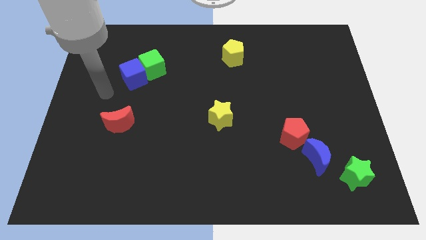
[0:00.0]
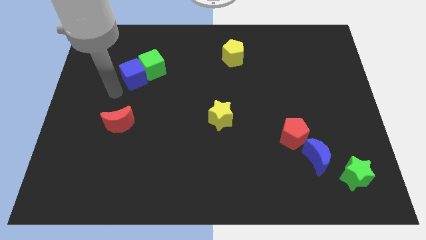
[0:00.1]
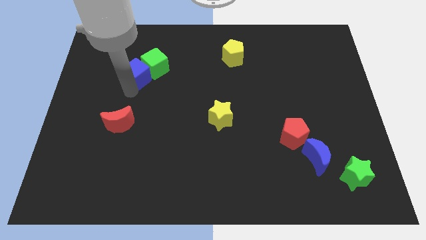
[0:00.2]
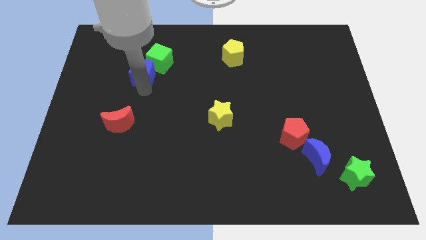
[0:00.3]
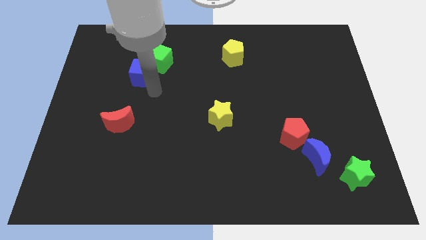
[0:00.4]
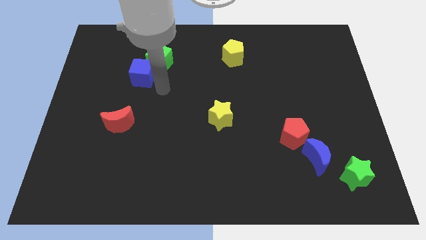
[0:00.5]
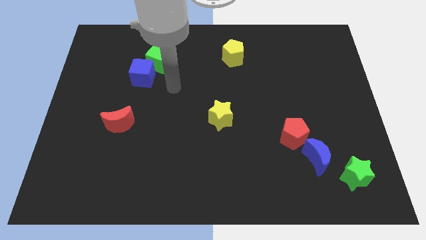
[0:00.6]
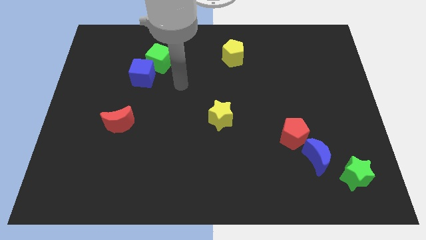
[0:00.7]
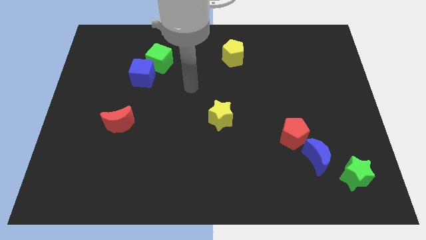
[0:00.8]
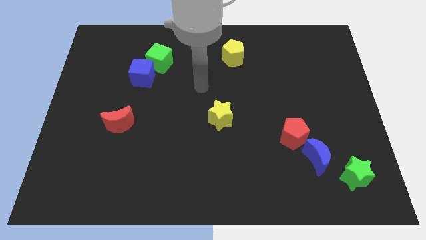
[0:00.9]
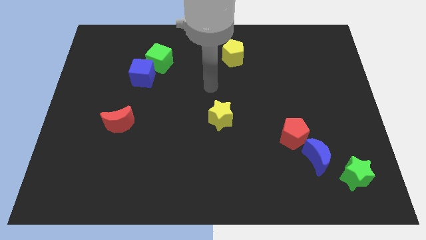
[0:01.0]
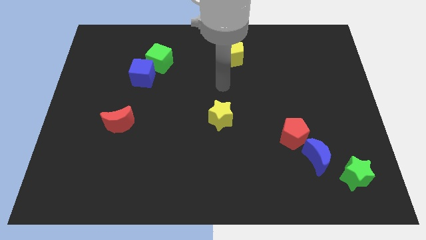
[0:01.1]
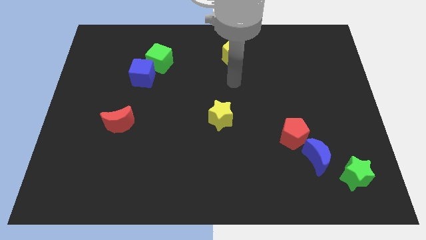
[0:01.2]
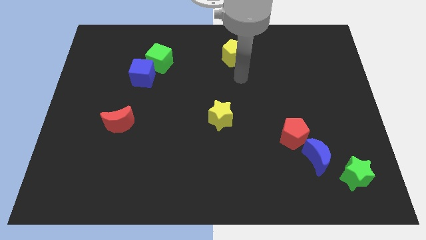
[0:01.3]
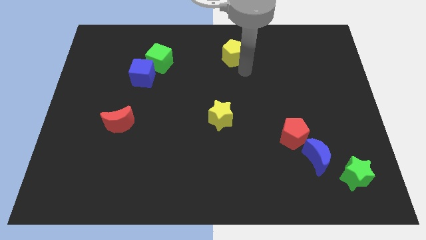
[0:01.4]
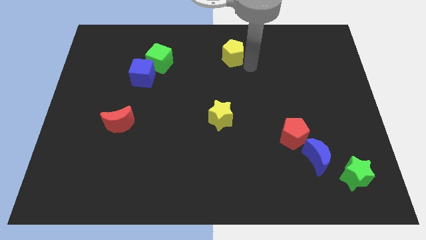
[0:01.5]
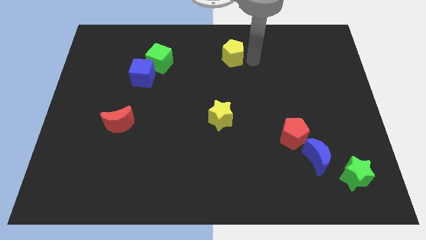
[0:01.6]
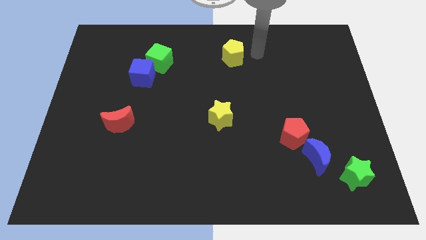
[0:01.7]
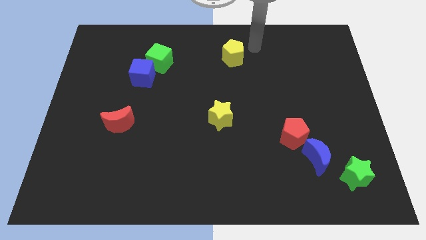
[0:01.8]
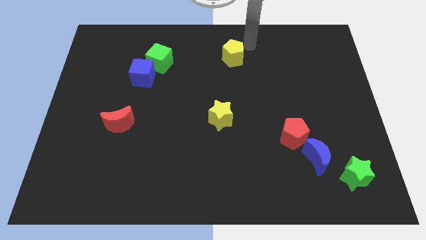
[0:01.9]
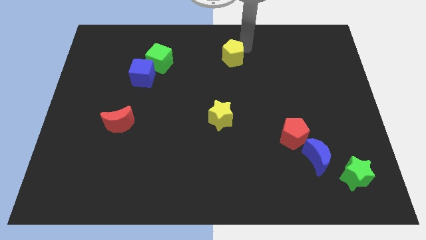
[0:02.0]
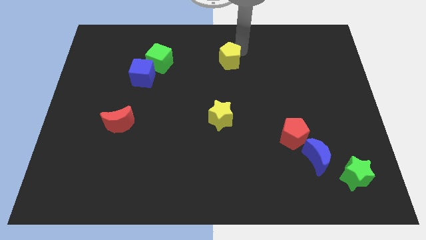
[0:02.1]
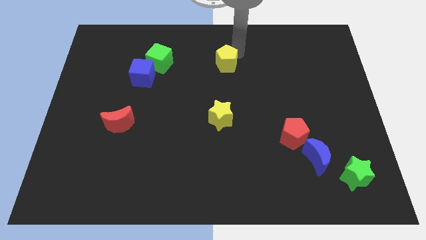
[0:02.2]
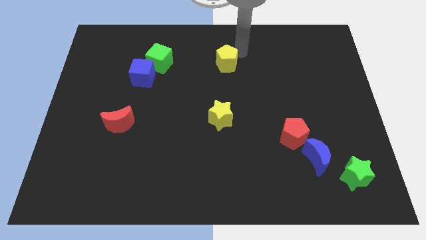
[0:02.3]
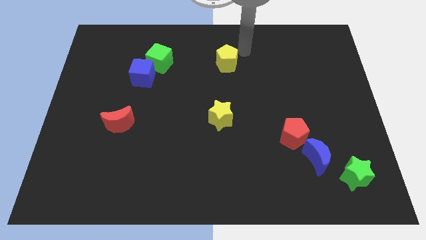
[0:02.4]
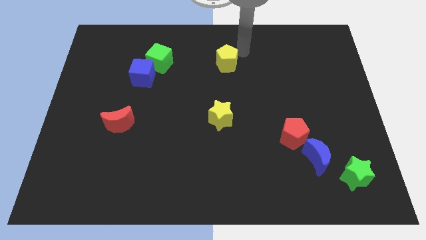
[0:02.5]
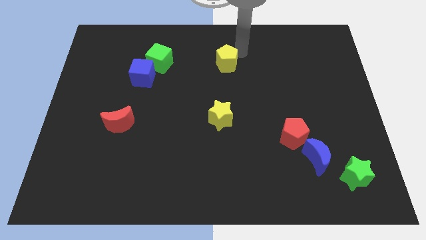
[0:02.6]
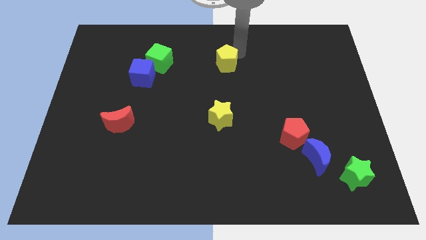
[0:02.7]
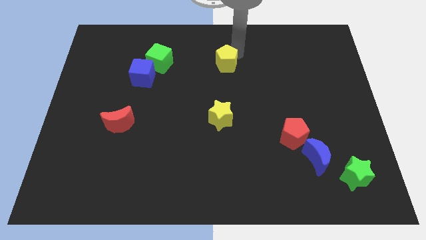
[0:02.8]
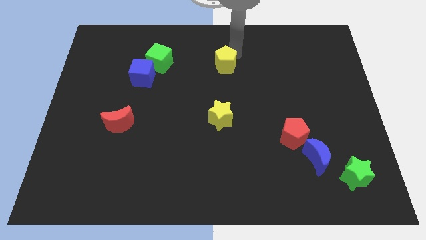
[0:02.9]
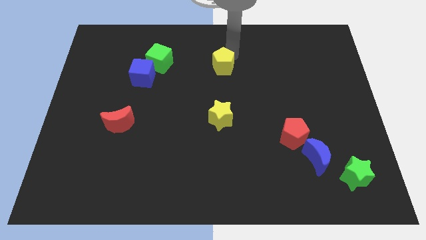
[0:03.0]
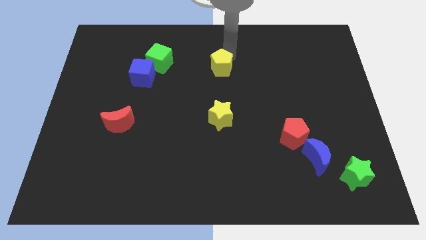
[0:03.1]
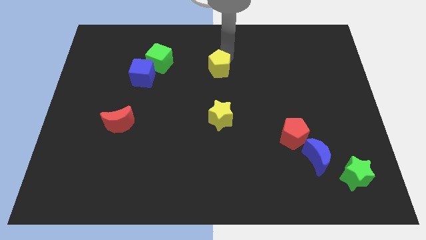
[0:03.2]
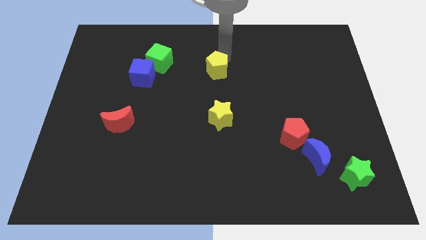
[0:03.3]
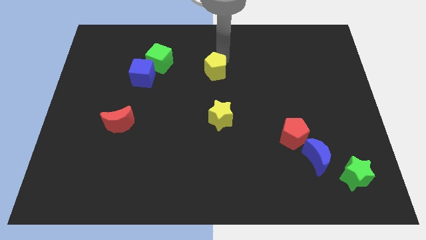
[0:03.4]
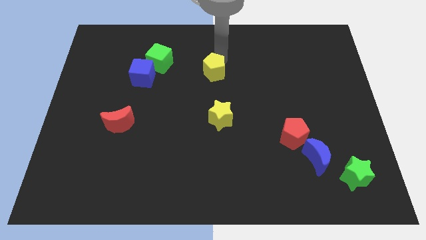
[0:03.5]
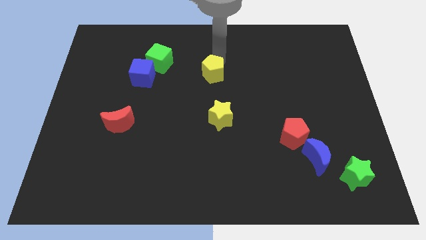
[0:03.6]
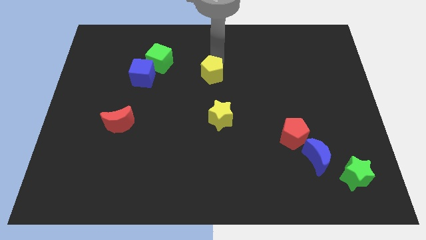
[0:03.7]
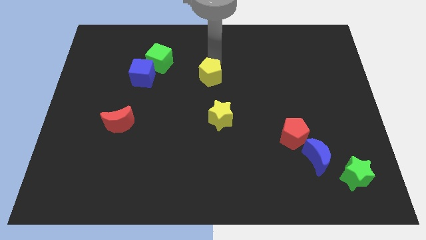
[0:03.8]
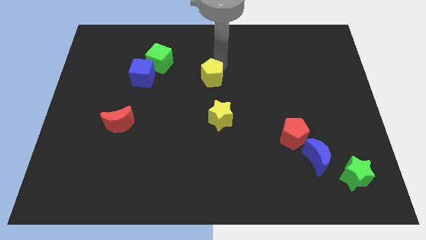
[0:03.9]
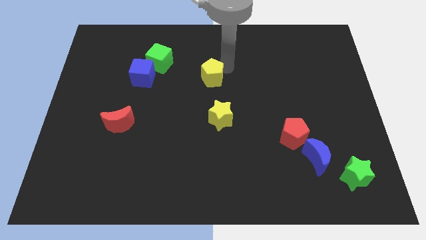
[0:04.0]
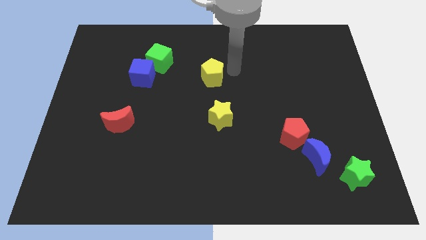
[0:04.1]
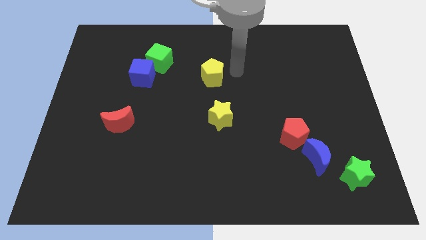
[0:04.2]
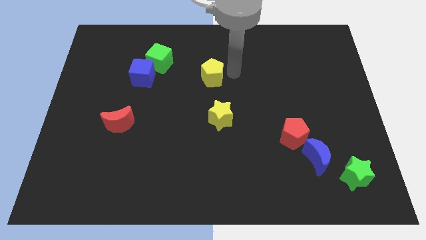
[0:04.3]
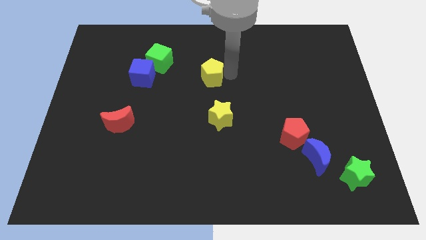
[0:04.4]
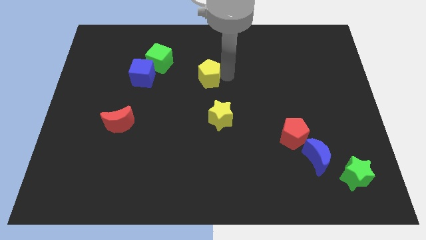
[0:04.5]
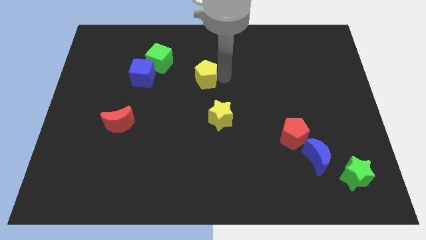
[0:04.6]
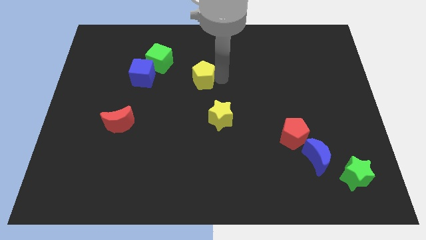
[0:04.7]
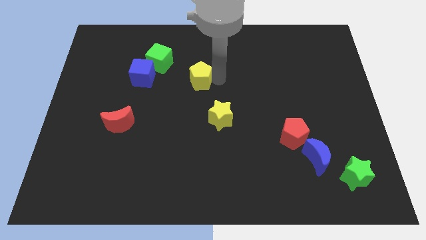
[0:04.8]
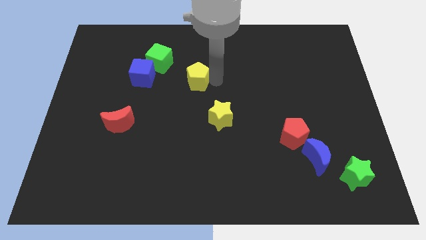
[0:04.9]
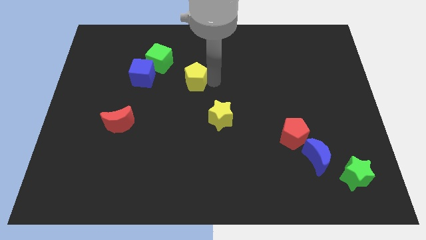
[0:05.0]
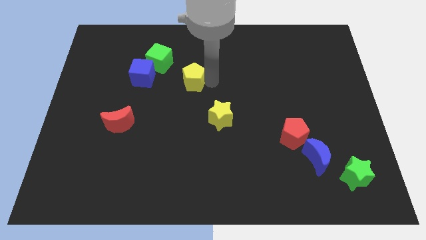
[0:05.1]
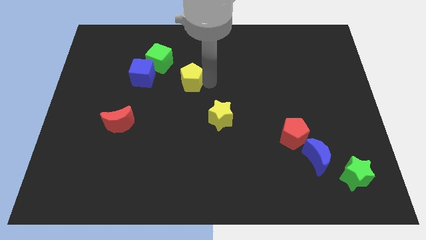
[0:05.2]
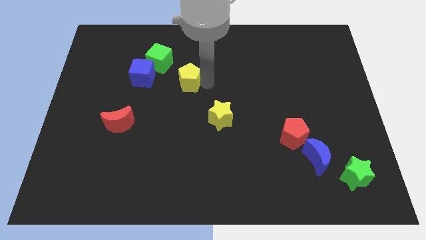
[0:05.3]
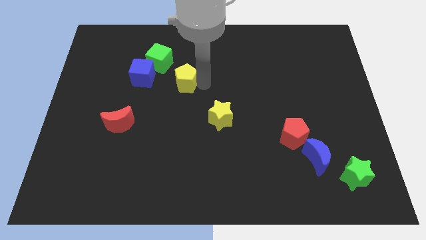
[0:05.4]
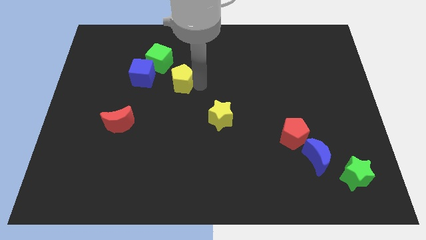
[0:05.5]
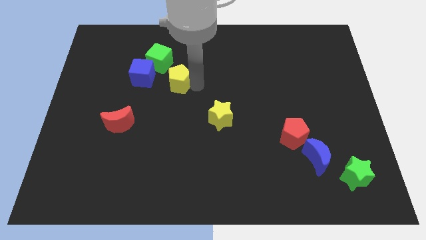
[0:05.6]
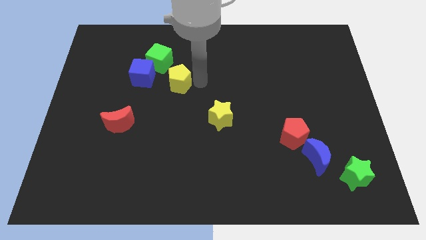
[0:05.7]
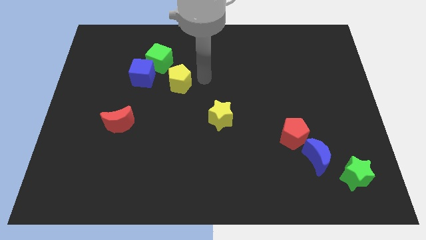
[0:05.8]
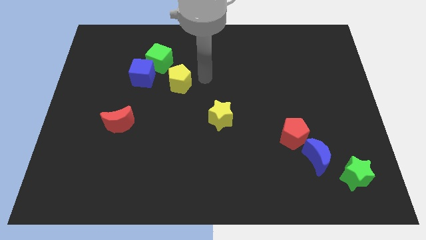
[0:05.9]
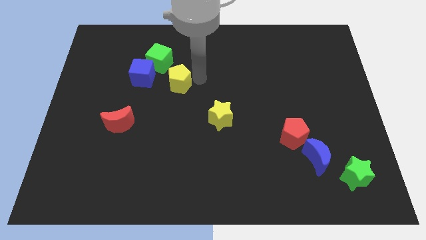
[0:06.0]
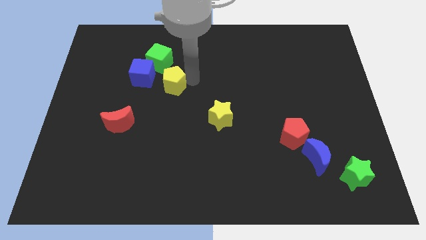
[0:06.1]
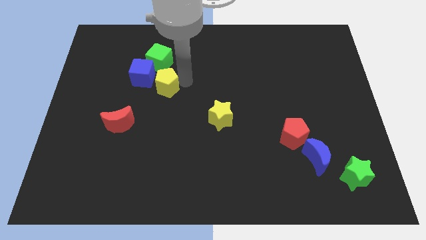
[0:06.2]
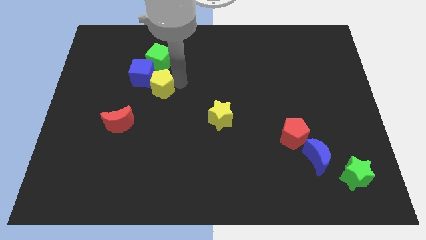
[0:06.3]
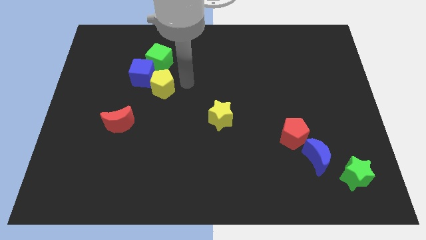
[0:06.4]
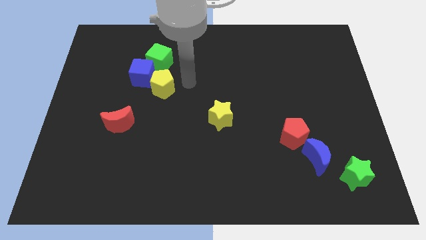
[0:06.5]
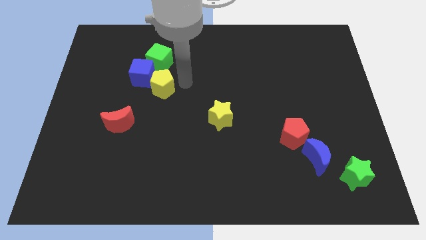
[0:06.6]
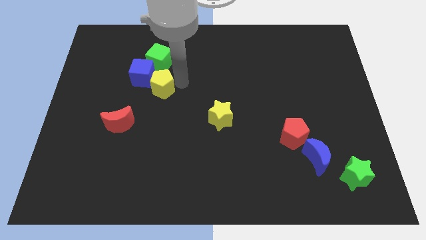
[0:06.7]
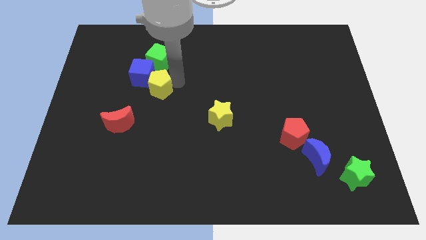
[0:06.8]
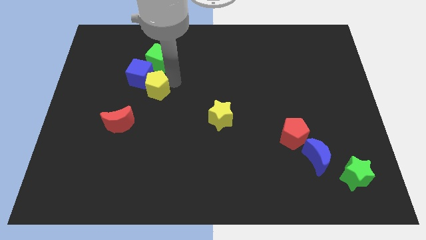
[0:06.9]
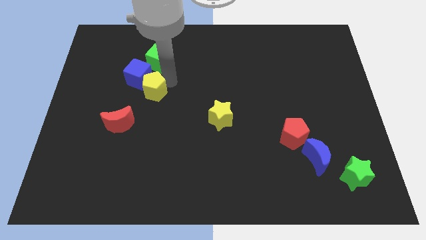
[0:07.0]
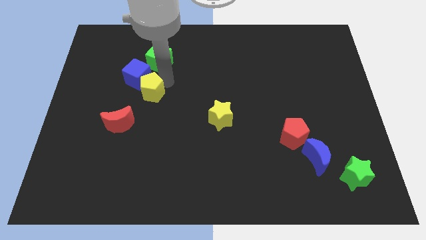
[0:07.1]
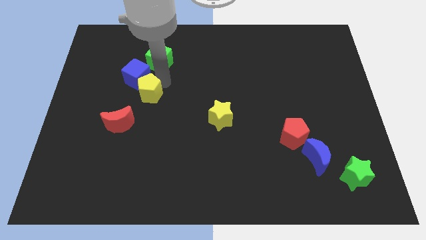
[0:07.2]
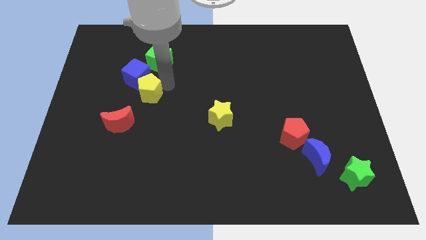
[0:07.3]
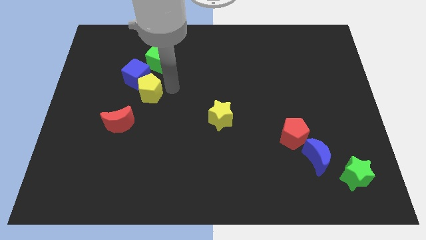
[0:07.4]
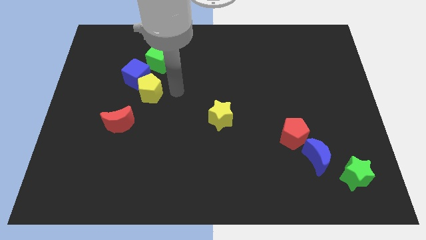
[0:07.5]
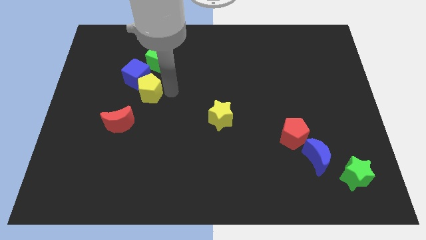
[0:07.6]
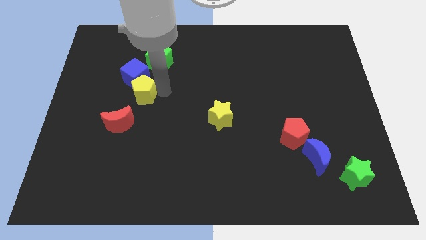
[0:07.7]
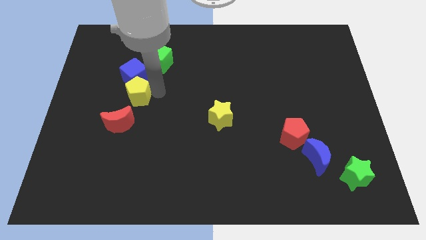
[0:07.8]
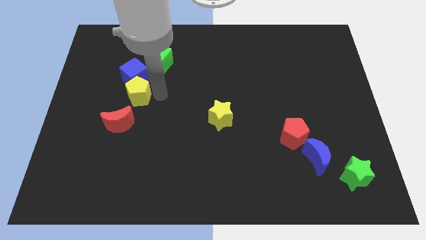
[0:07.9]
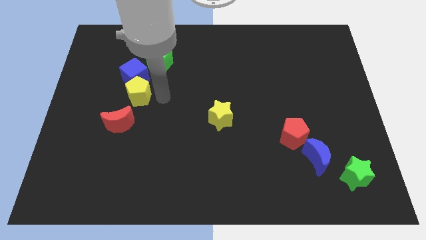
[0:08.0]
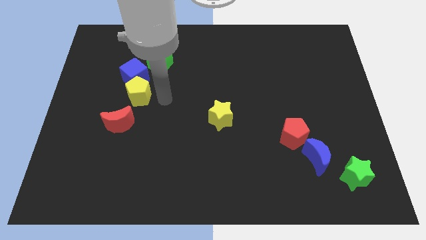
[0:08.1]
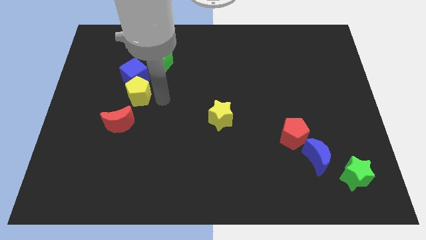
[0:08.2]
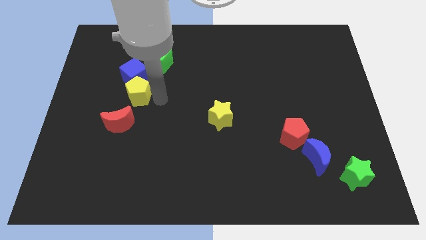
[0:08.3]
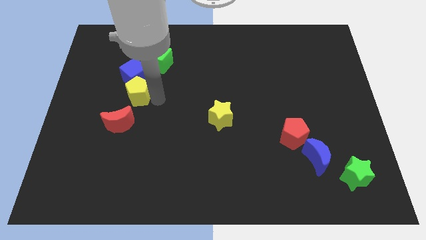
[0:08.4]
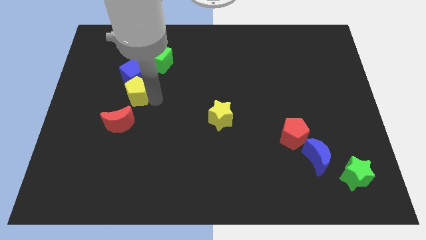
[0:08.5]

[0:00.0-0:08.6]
put the yellow pentagon diagonally down and to the left of the blue cube
